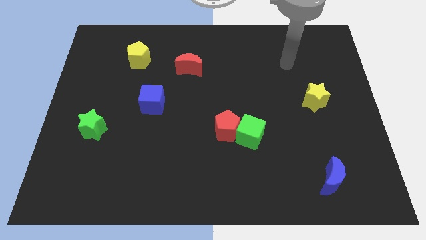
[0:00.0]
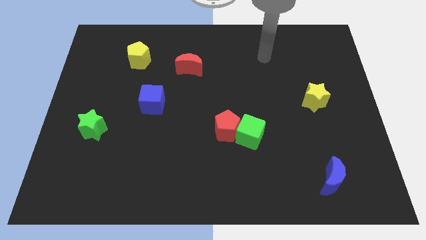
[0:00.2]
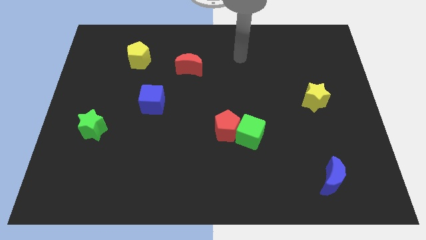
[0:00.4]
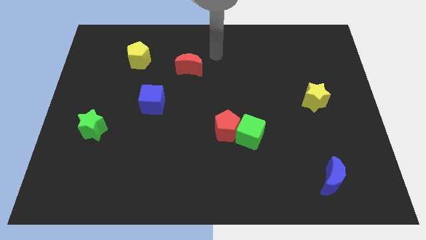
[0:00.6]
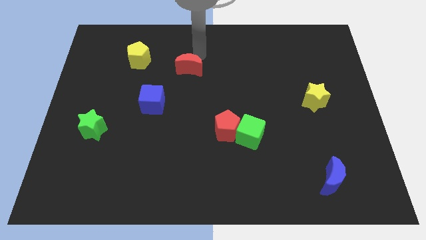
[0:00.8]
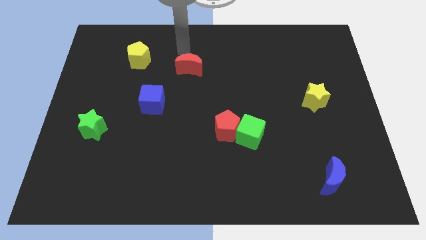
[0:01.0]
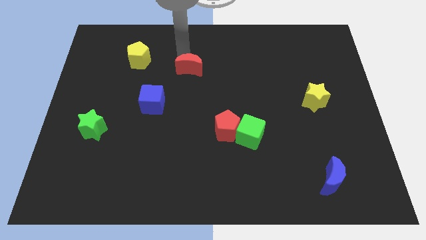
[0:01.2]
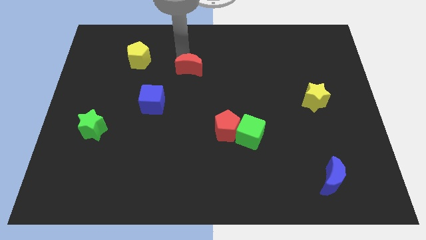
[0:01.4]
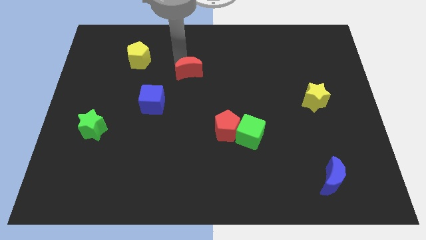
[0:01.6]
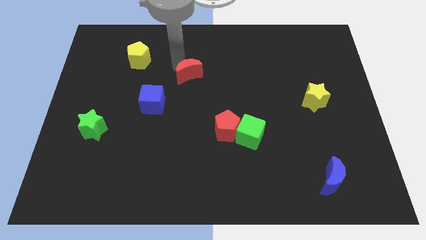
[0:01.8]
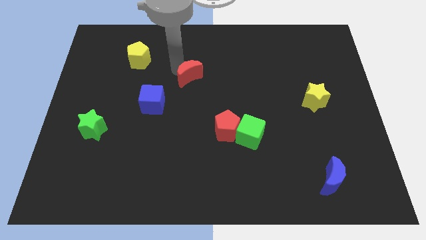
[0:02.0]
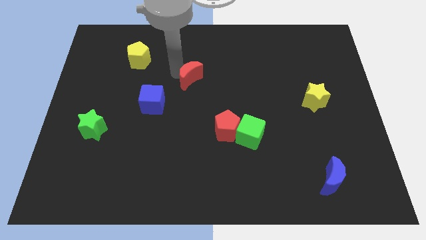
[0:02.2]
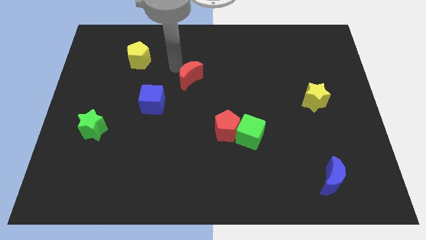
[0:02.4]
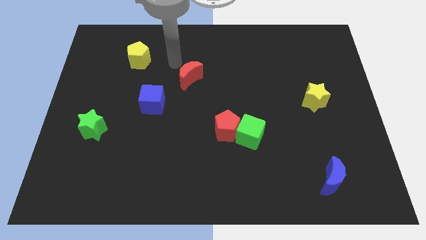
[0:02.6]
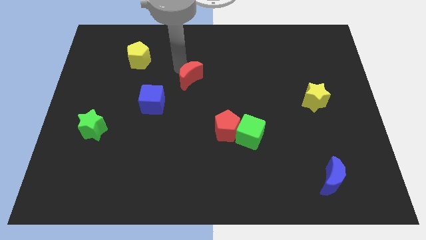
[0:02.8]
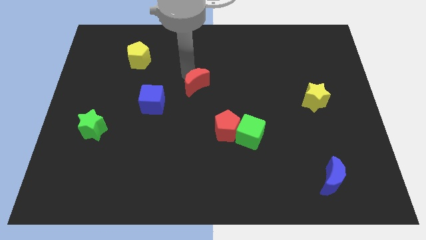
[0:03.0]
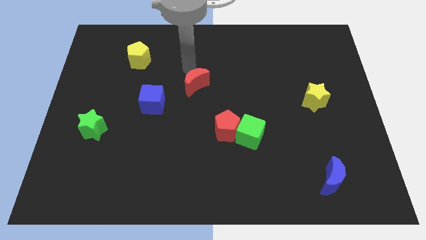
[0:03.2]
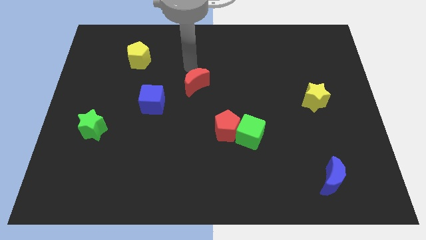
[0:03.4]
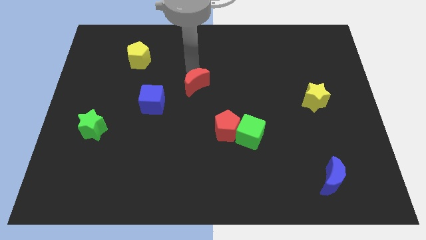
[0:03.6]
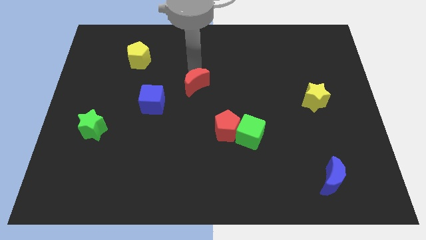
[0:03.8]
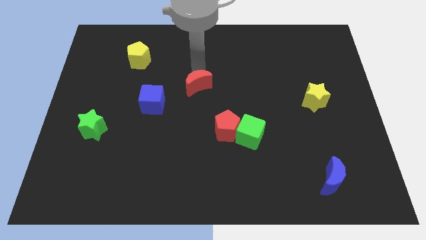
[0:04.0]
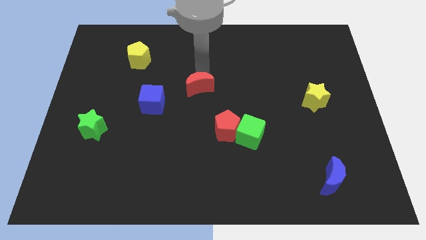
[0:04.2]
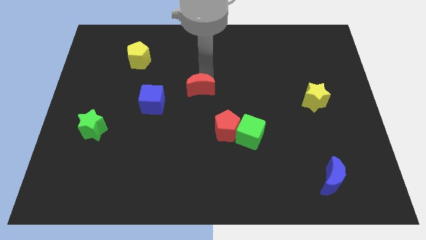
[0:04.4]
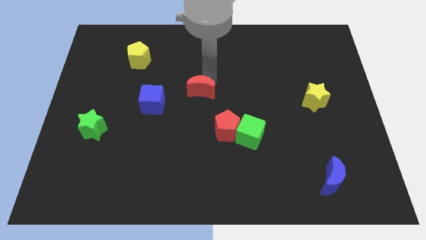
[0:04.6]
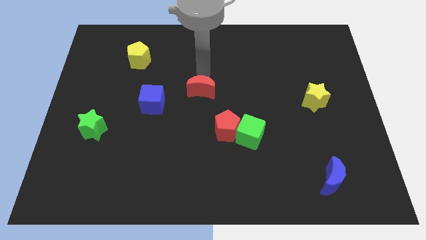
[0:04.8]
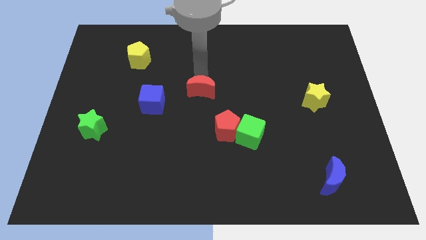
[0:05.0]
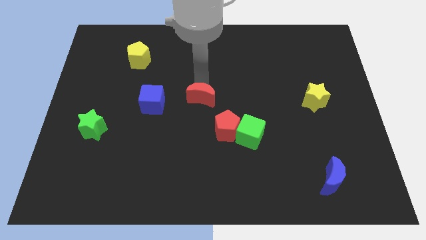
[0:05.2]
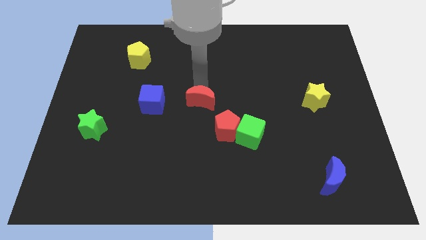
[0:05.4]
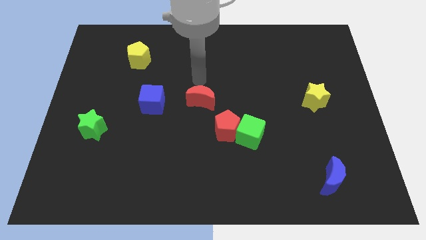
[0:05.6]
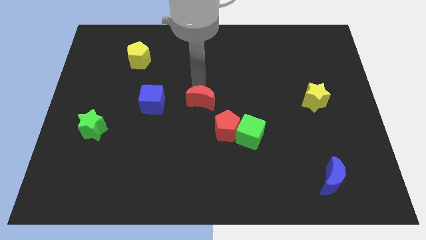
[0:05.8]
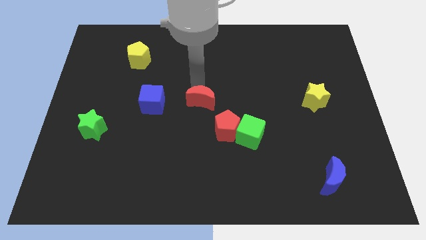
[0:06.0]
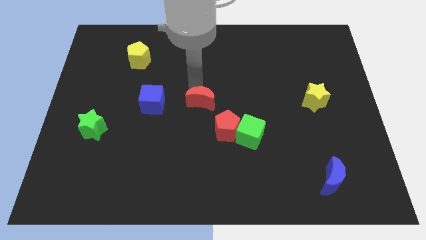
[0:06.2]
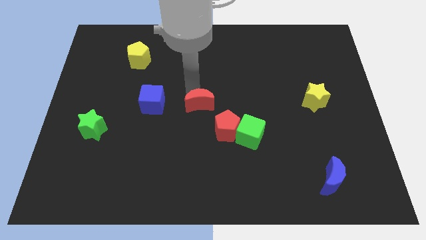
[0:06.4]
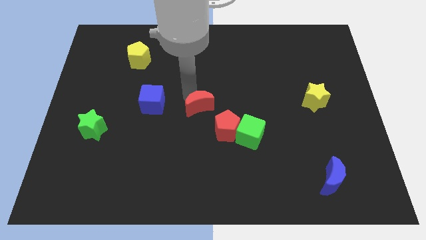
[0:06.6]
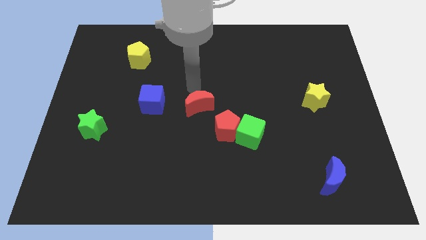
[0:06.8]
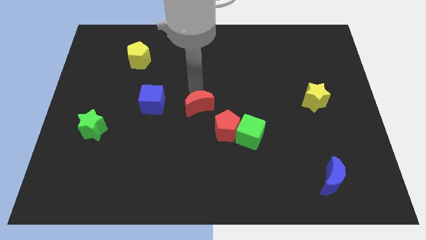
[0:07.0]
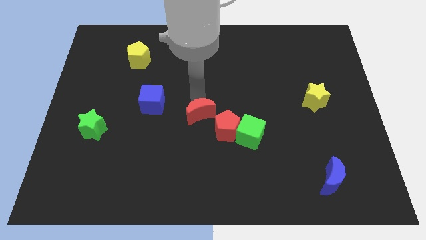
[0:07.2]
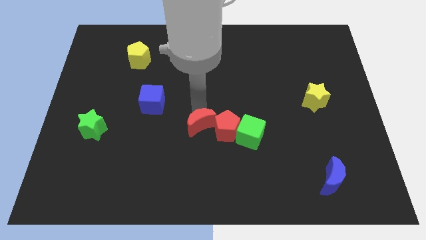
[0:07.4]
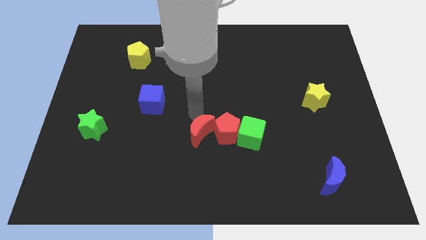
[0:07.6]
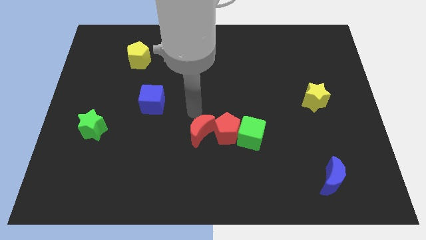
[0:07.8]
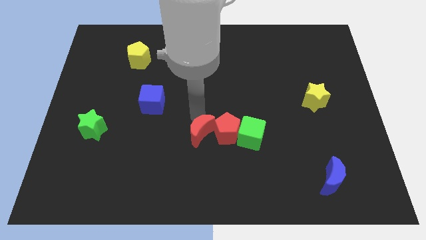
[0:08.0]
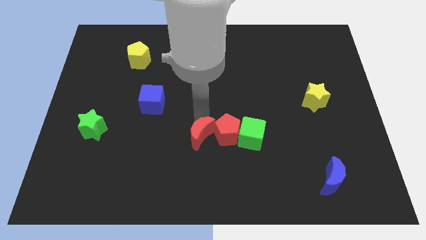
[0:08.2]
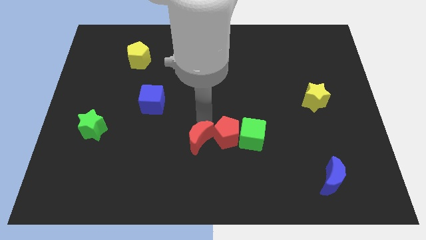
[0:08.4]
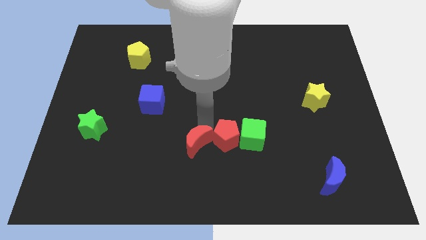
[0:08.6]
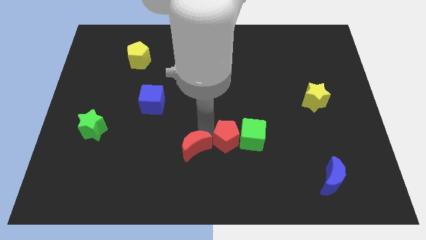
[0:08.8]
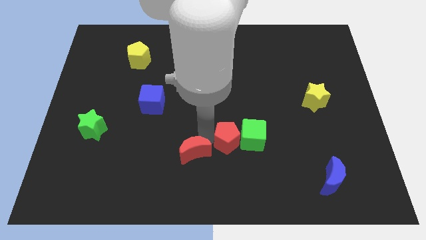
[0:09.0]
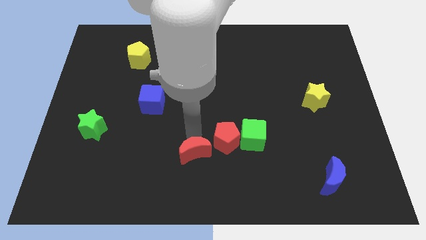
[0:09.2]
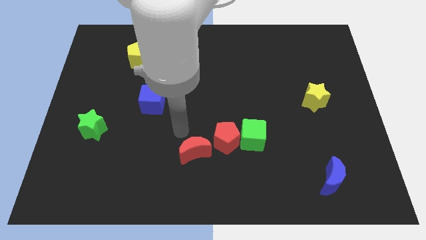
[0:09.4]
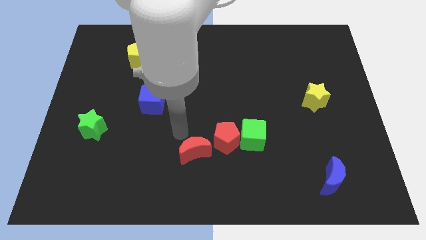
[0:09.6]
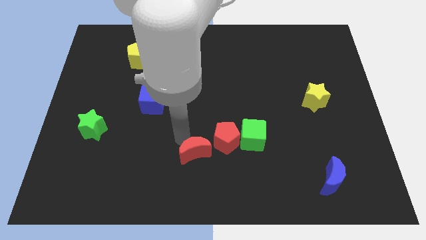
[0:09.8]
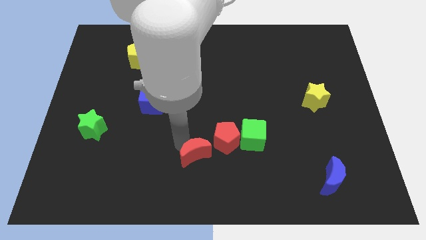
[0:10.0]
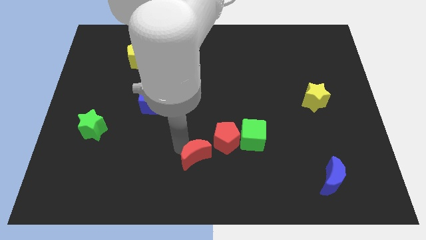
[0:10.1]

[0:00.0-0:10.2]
put the red moon to the bottom
